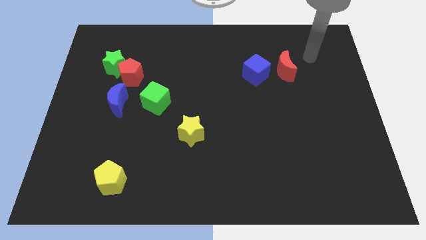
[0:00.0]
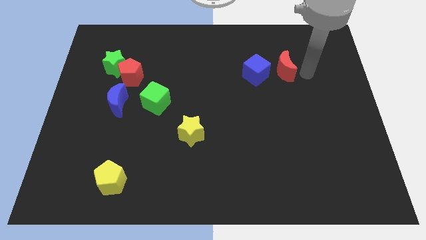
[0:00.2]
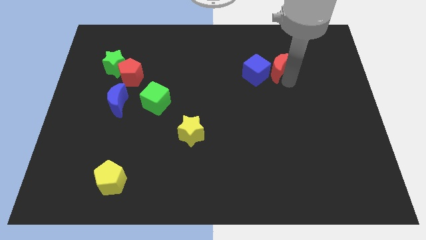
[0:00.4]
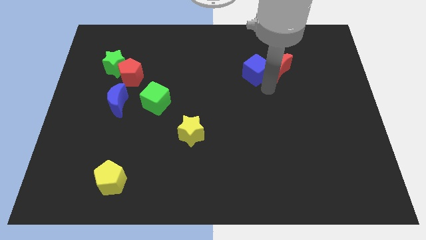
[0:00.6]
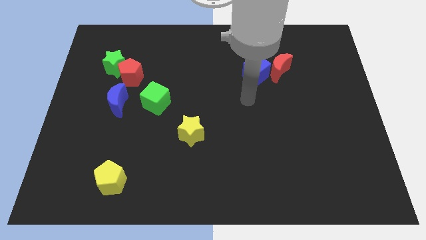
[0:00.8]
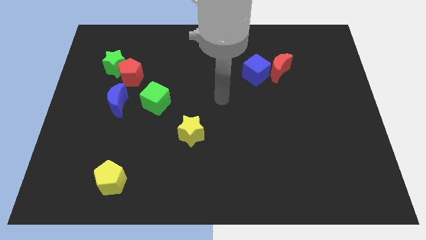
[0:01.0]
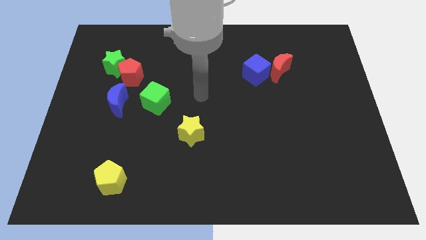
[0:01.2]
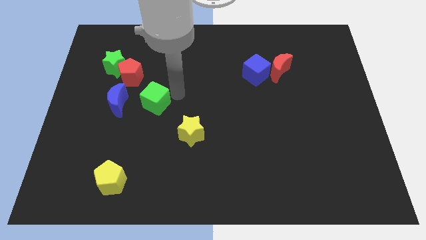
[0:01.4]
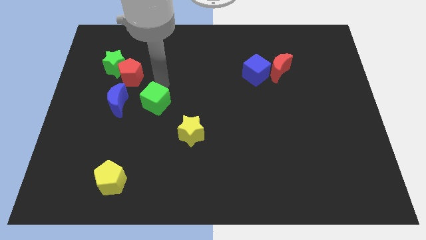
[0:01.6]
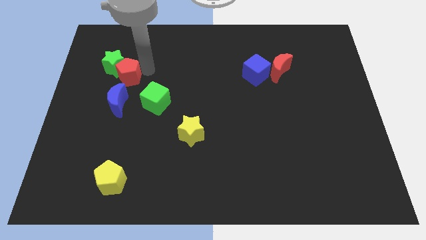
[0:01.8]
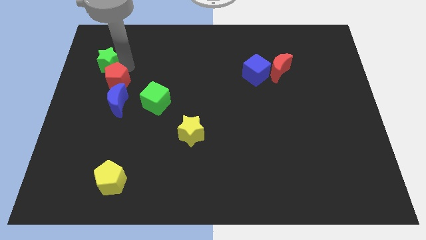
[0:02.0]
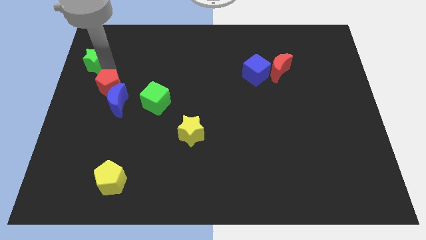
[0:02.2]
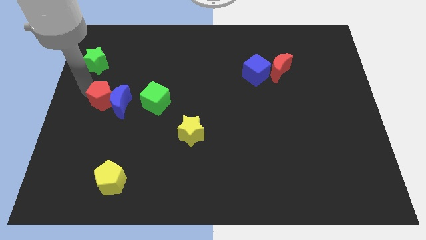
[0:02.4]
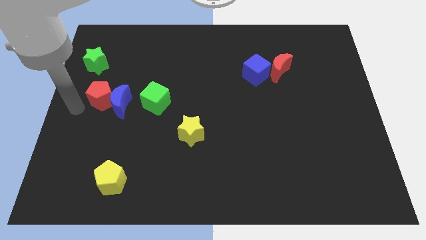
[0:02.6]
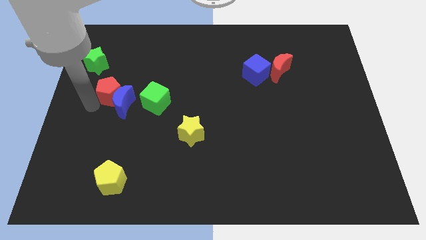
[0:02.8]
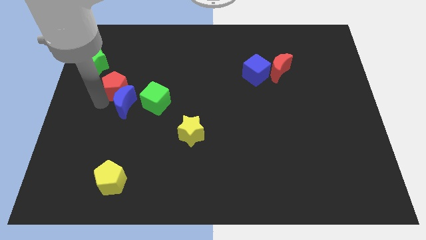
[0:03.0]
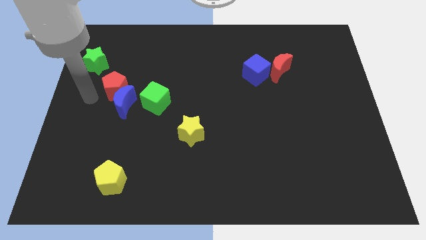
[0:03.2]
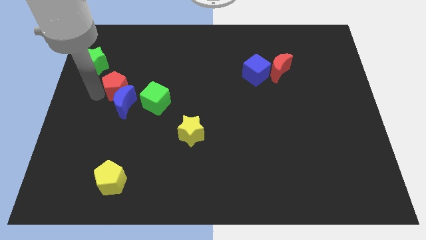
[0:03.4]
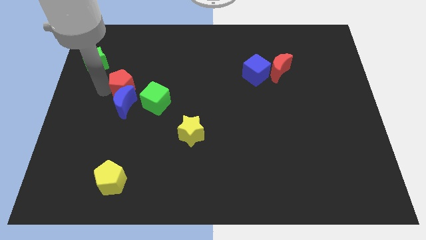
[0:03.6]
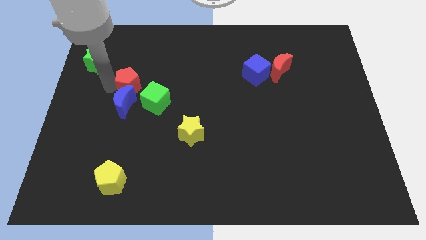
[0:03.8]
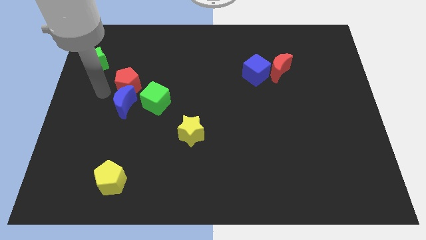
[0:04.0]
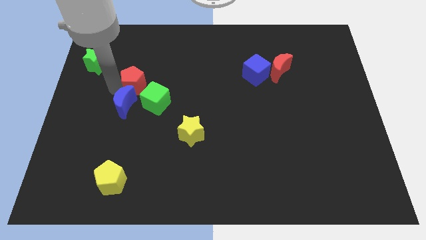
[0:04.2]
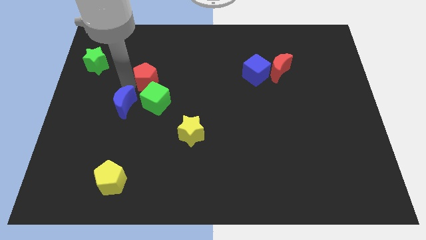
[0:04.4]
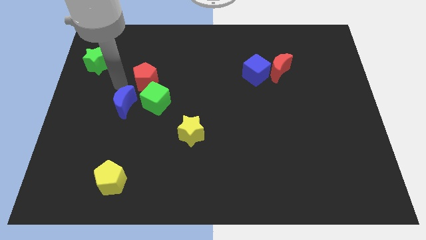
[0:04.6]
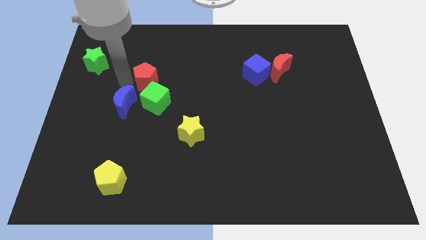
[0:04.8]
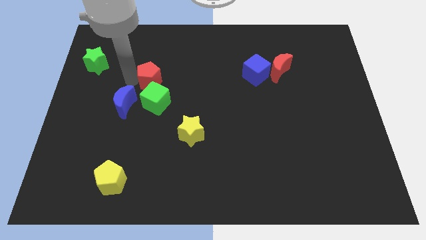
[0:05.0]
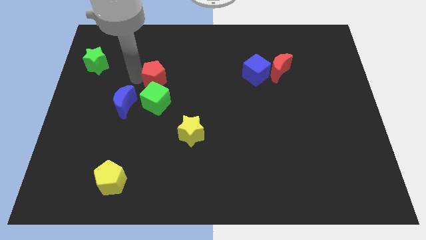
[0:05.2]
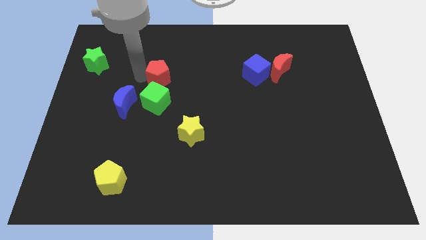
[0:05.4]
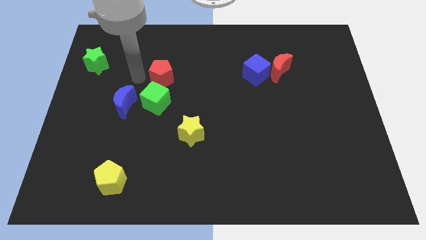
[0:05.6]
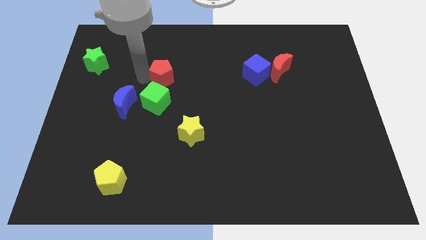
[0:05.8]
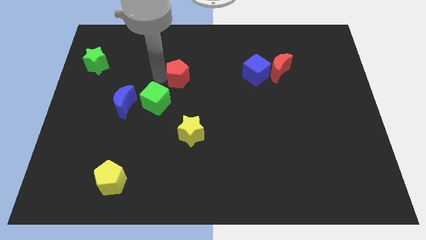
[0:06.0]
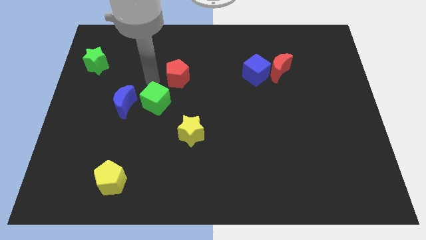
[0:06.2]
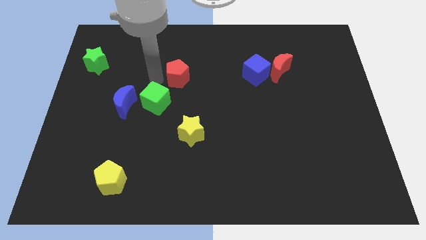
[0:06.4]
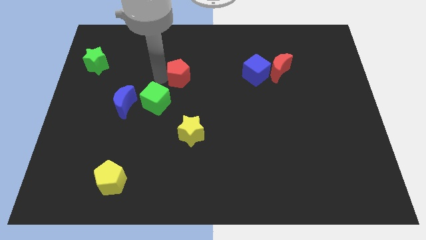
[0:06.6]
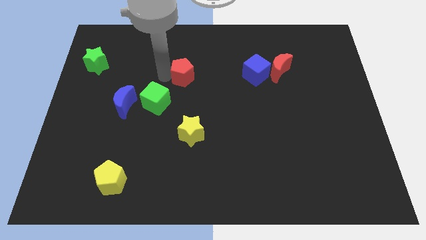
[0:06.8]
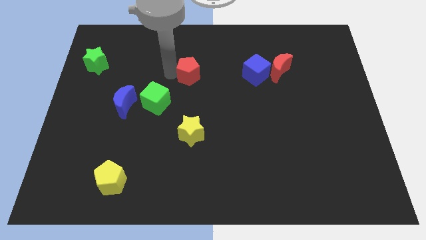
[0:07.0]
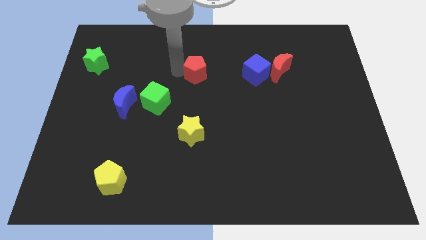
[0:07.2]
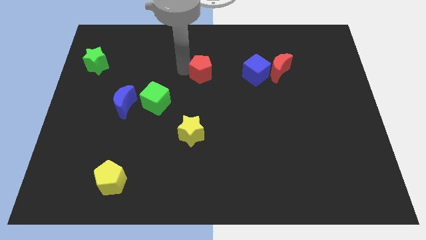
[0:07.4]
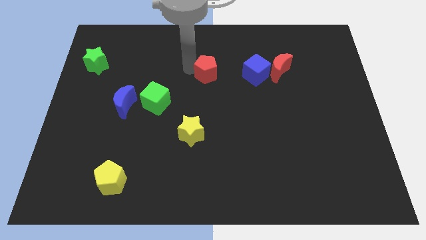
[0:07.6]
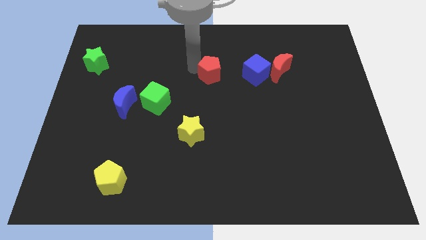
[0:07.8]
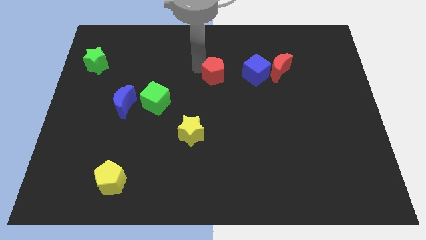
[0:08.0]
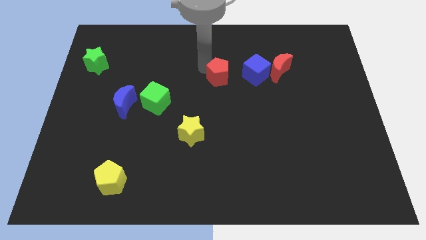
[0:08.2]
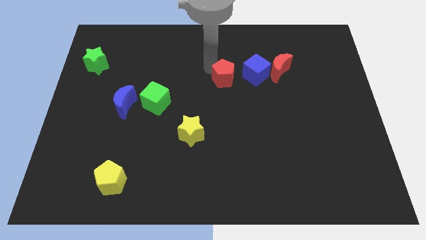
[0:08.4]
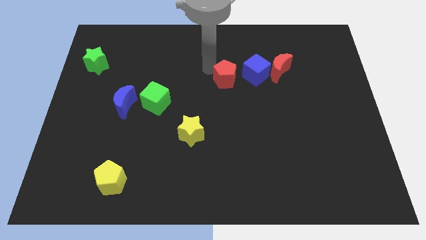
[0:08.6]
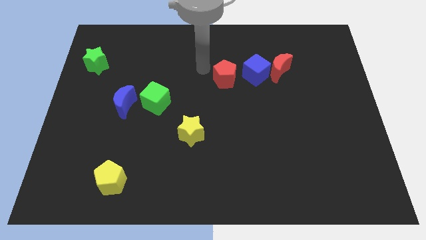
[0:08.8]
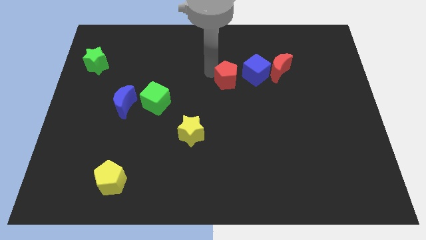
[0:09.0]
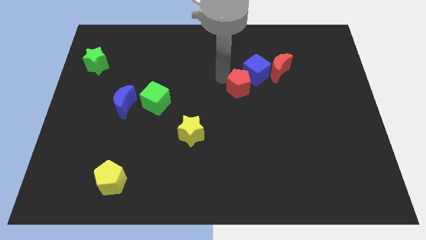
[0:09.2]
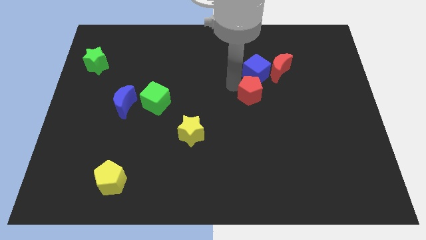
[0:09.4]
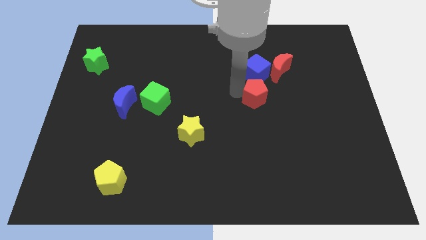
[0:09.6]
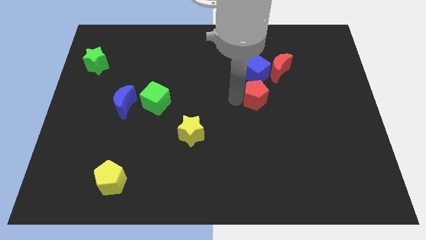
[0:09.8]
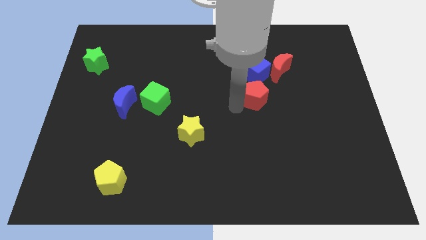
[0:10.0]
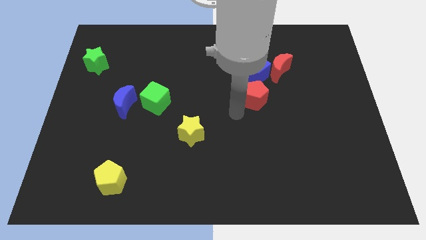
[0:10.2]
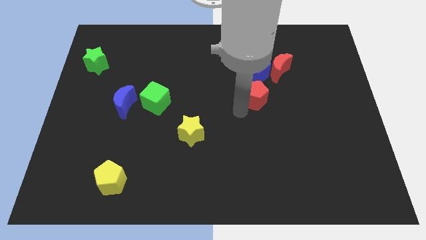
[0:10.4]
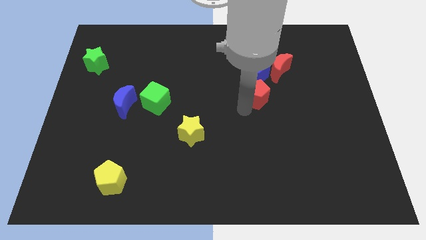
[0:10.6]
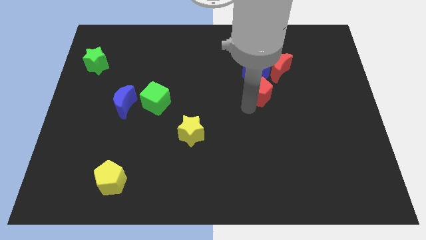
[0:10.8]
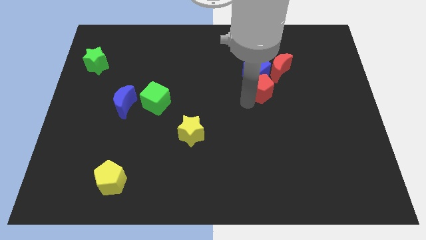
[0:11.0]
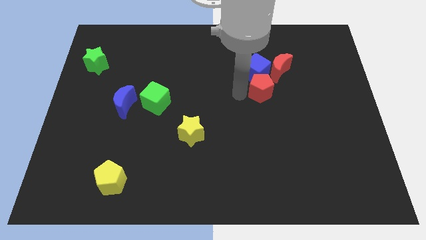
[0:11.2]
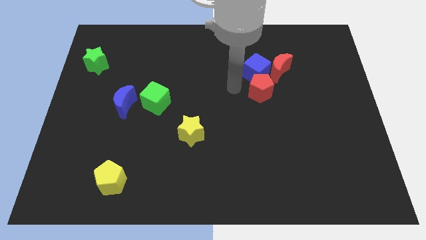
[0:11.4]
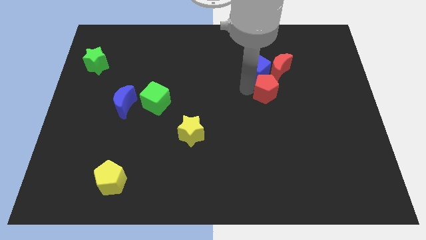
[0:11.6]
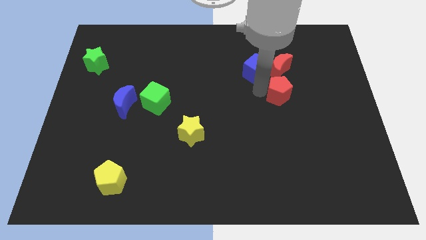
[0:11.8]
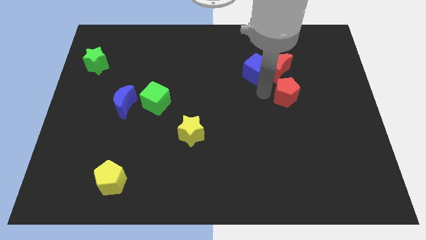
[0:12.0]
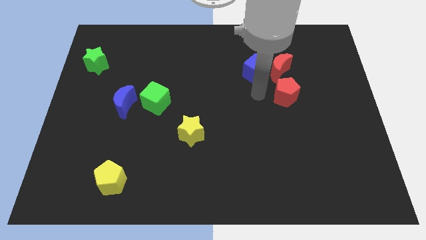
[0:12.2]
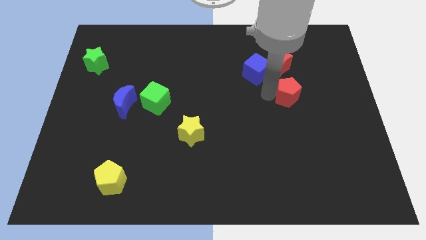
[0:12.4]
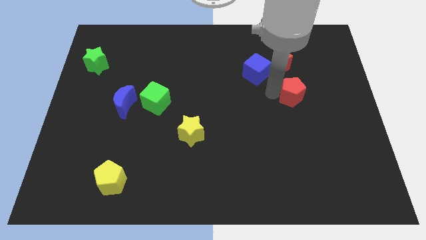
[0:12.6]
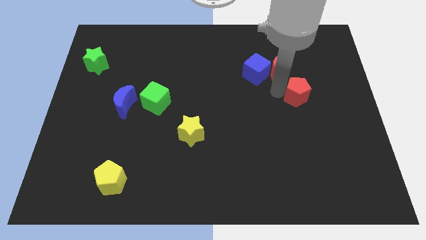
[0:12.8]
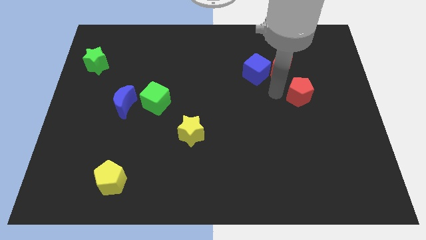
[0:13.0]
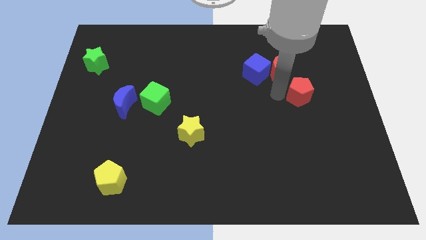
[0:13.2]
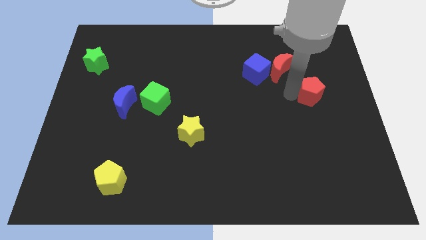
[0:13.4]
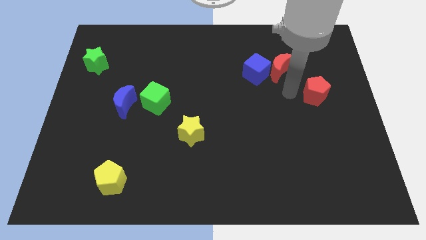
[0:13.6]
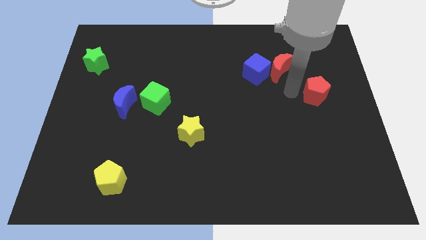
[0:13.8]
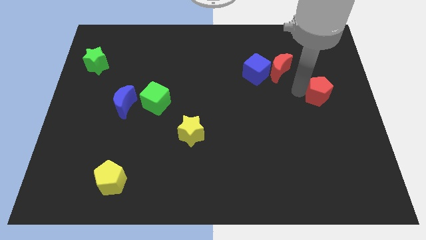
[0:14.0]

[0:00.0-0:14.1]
put the red pentagon to the right side of the board

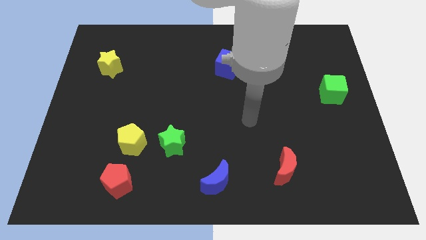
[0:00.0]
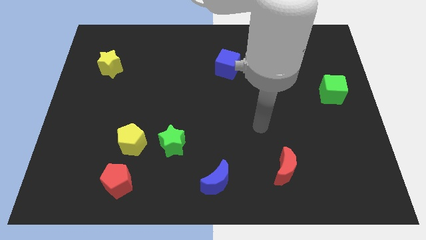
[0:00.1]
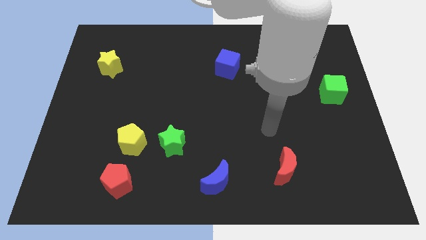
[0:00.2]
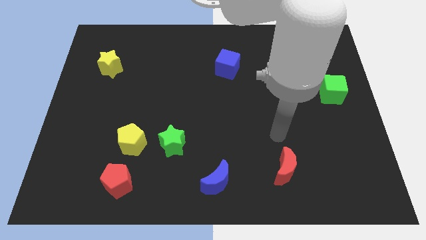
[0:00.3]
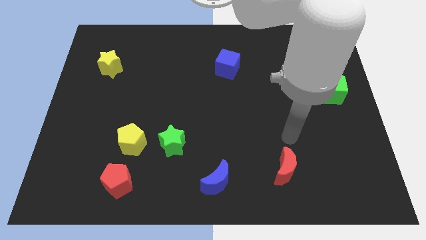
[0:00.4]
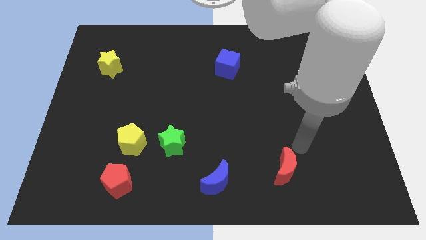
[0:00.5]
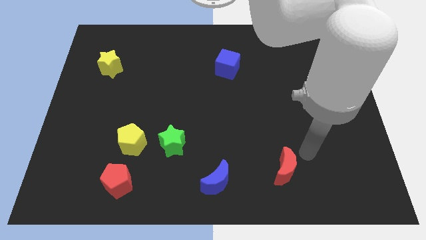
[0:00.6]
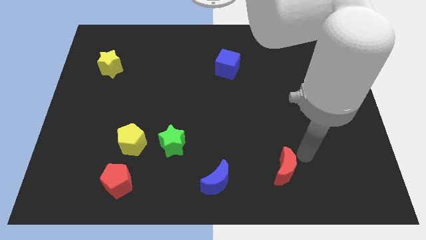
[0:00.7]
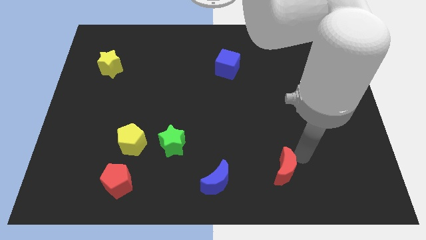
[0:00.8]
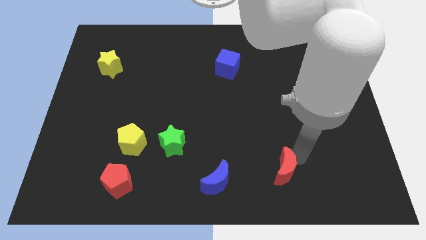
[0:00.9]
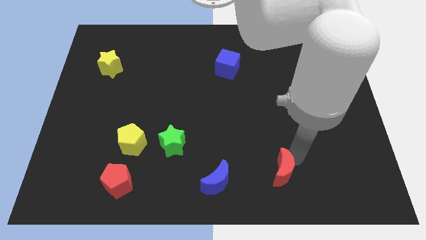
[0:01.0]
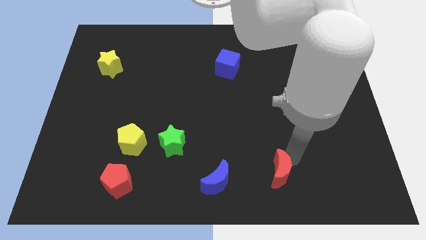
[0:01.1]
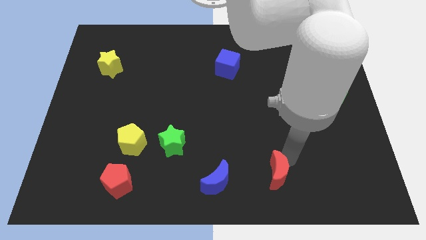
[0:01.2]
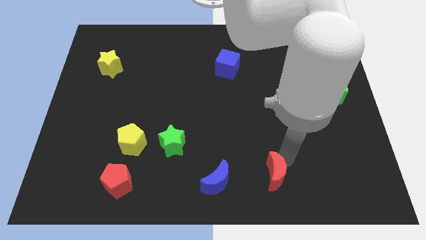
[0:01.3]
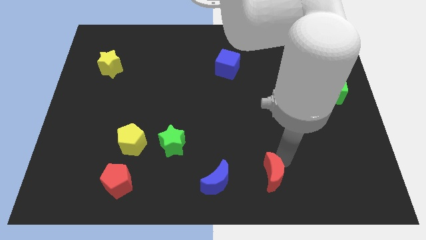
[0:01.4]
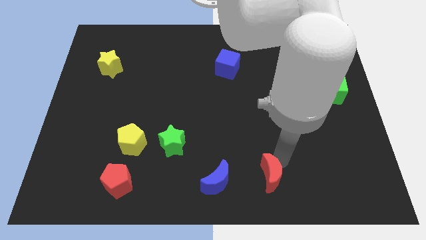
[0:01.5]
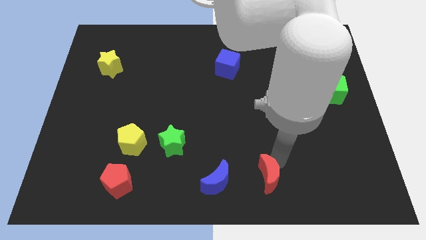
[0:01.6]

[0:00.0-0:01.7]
move the red moon to the bottom
